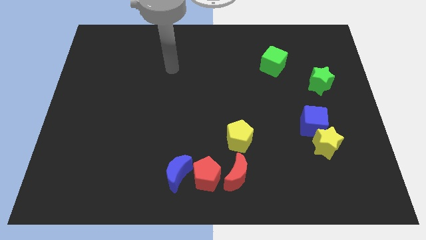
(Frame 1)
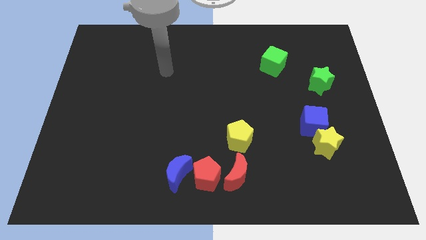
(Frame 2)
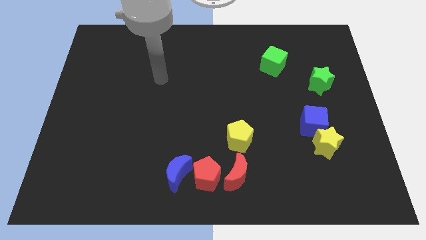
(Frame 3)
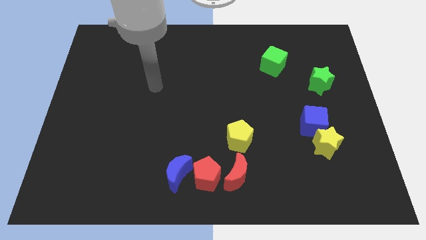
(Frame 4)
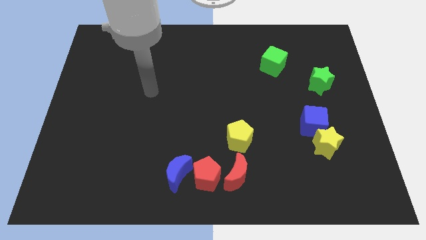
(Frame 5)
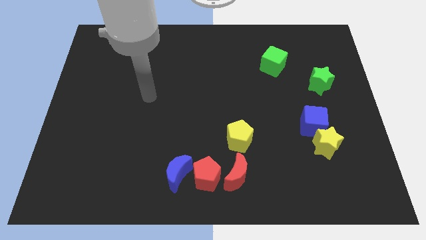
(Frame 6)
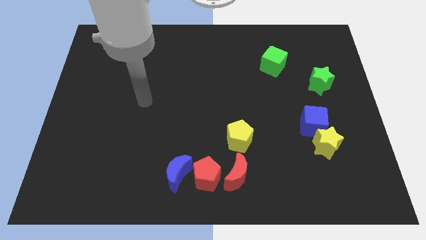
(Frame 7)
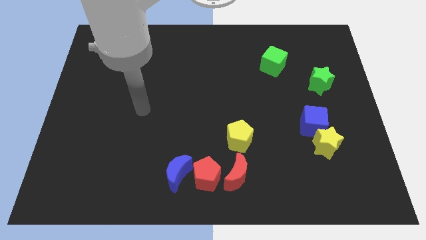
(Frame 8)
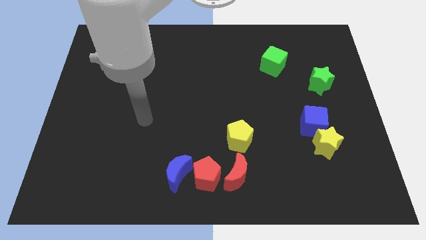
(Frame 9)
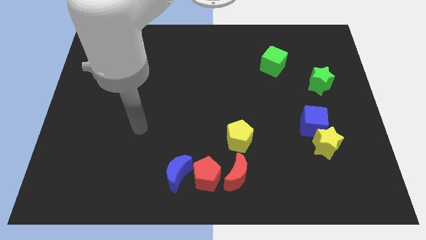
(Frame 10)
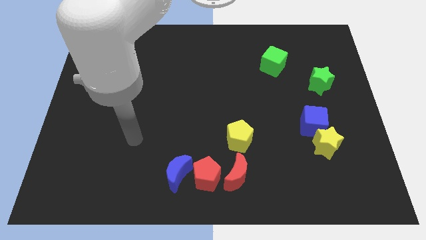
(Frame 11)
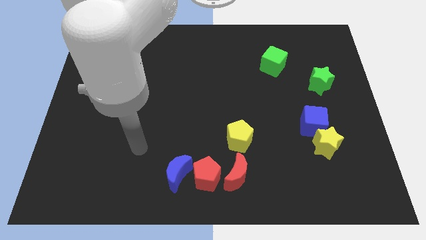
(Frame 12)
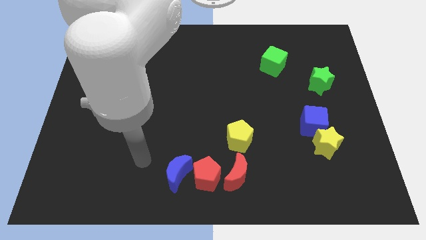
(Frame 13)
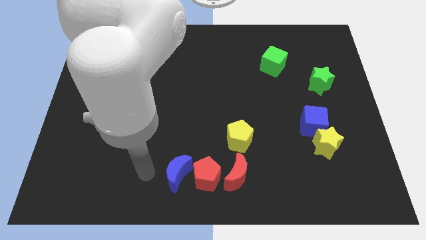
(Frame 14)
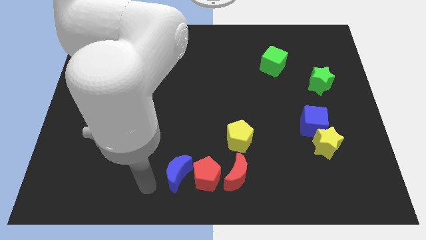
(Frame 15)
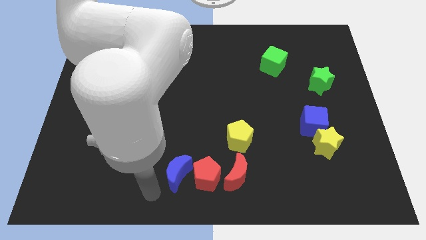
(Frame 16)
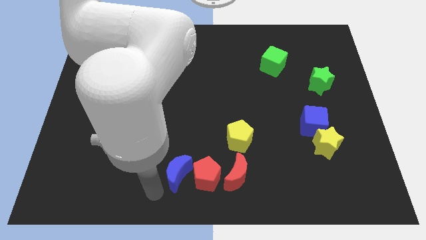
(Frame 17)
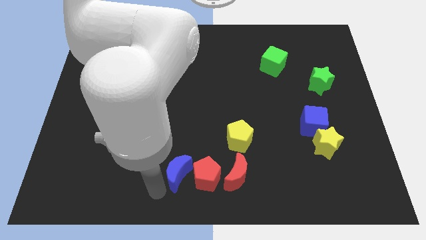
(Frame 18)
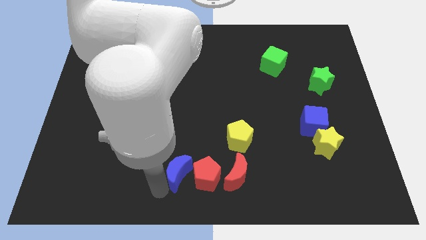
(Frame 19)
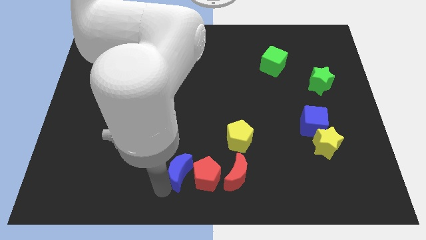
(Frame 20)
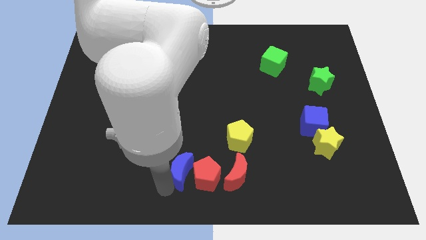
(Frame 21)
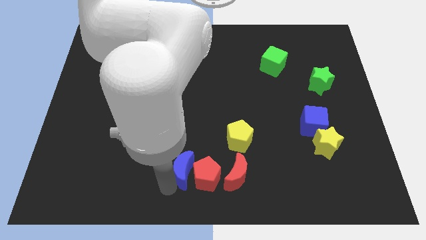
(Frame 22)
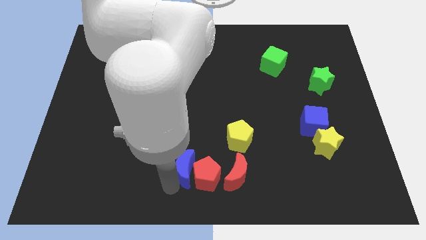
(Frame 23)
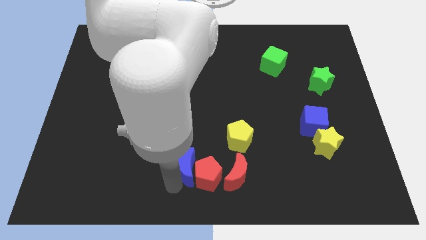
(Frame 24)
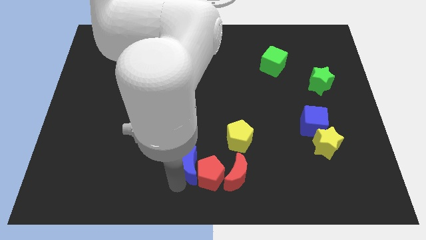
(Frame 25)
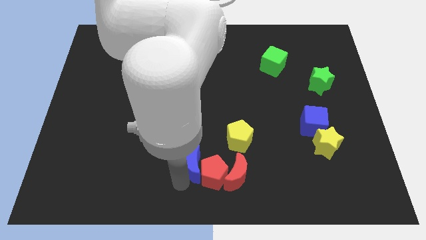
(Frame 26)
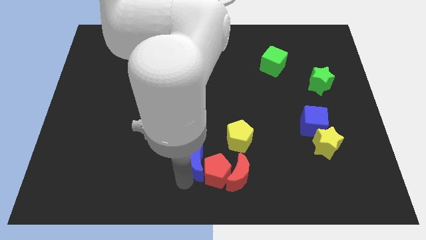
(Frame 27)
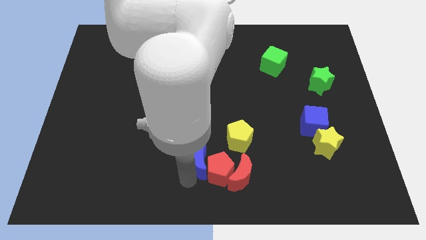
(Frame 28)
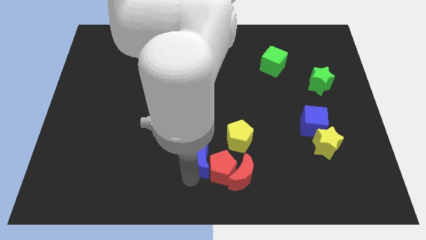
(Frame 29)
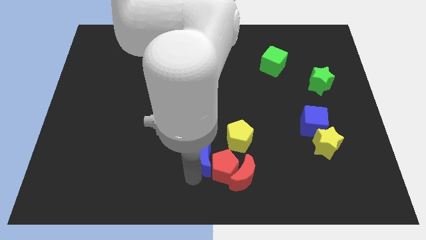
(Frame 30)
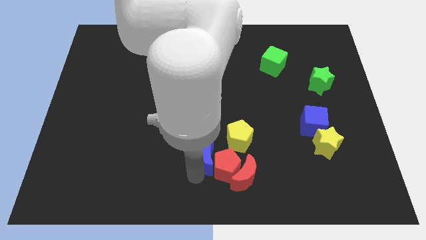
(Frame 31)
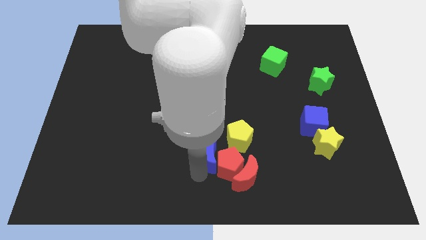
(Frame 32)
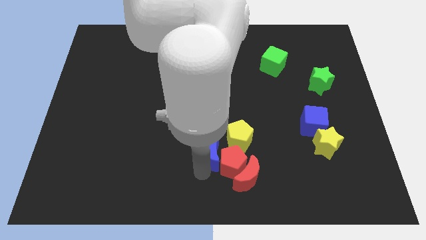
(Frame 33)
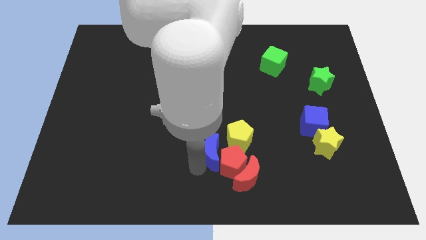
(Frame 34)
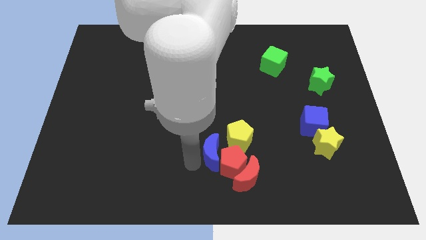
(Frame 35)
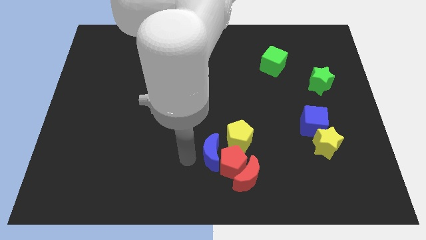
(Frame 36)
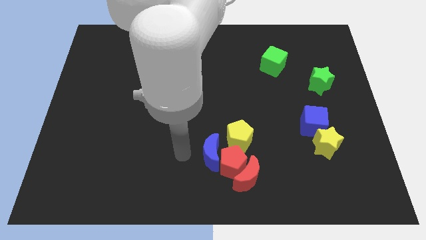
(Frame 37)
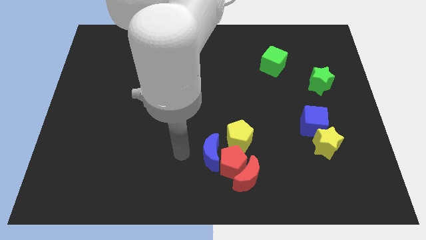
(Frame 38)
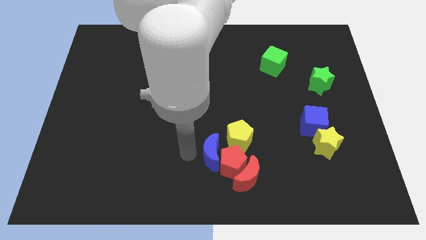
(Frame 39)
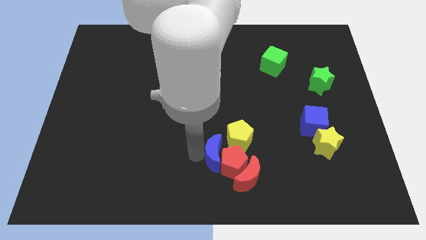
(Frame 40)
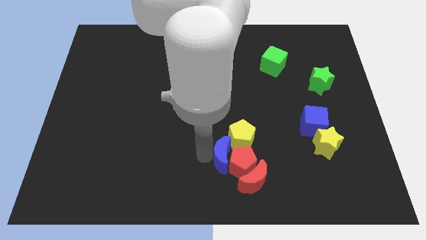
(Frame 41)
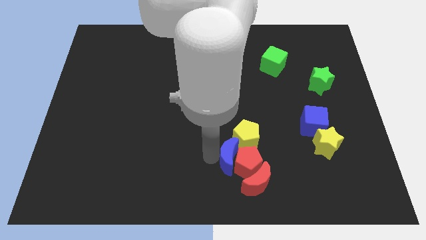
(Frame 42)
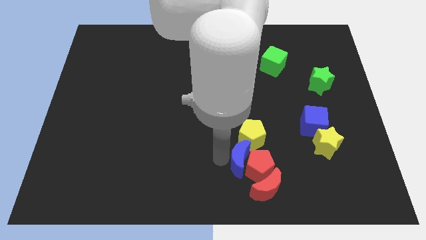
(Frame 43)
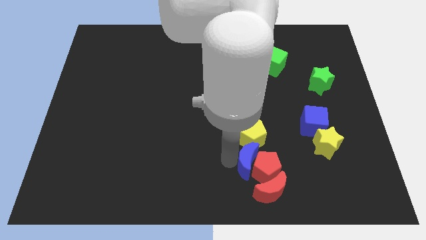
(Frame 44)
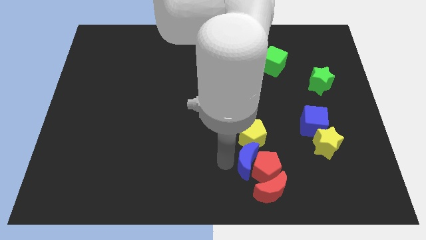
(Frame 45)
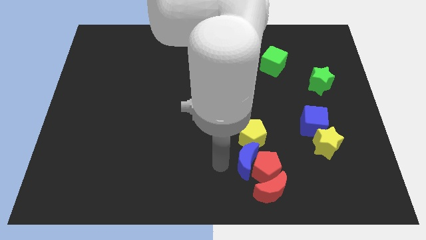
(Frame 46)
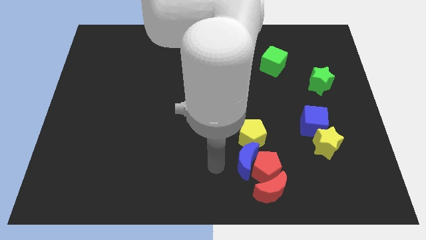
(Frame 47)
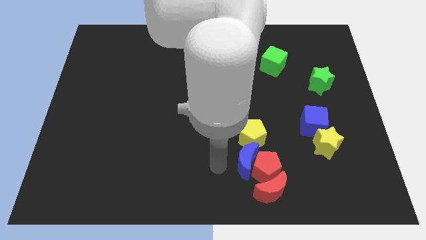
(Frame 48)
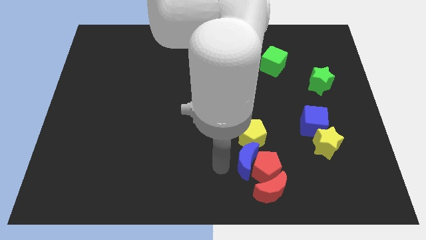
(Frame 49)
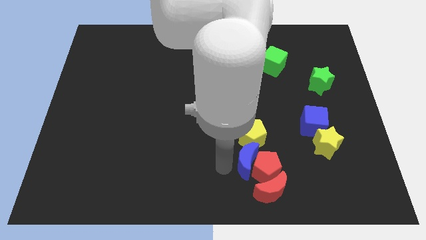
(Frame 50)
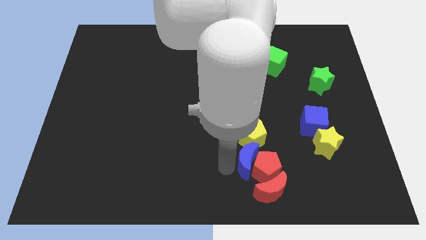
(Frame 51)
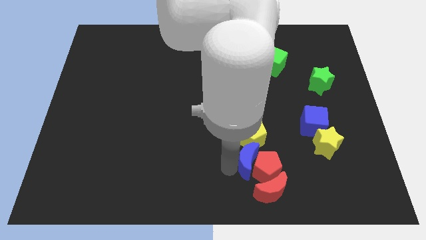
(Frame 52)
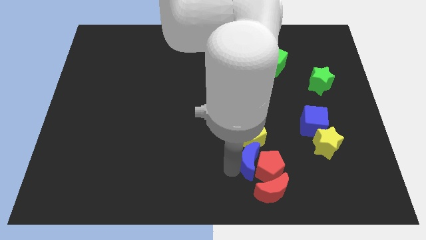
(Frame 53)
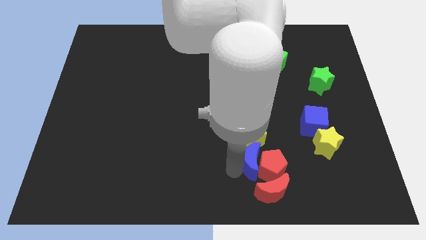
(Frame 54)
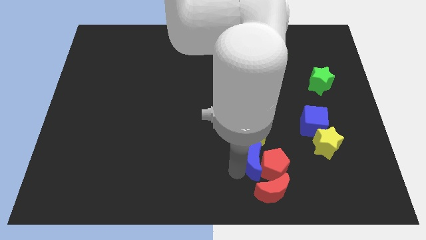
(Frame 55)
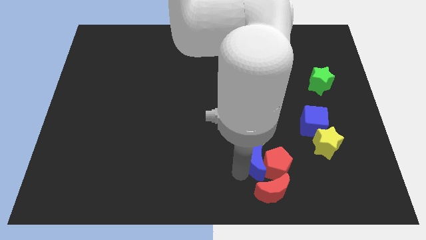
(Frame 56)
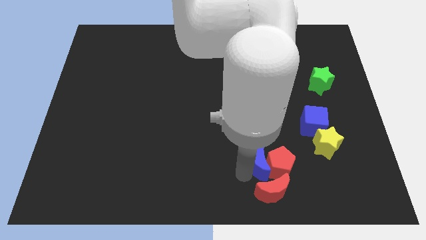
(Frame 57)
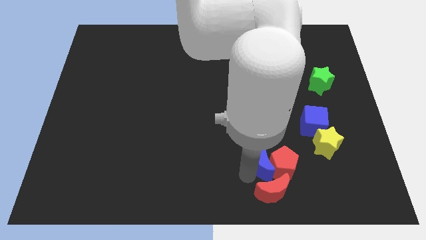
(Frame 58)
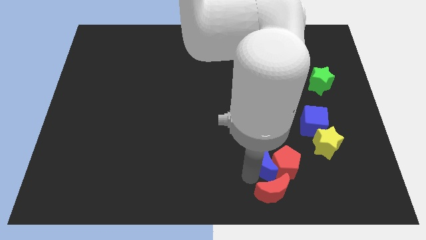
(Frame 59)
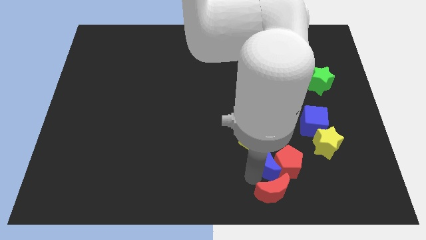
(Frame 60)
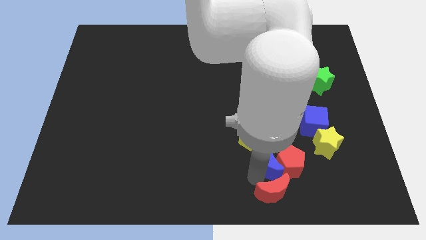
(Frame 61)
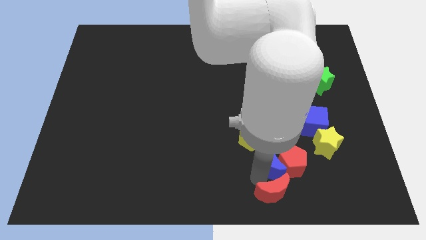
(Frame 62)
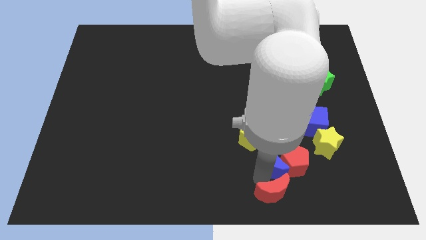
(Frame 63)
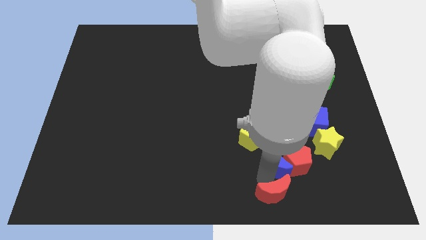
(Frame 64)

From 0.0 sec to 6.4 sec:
move the blue moon to the right

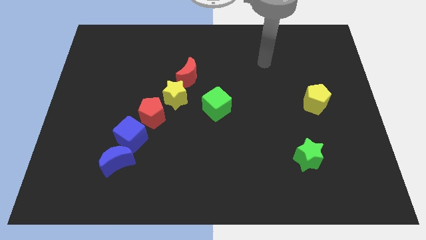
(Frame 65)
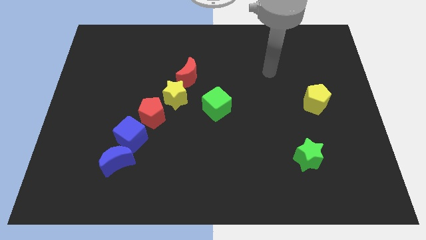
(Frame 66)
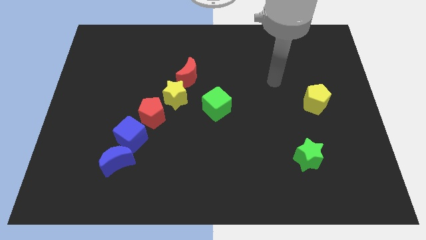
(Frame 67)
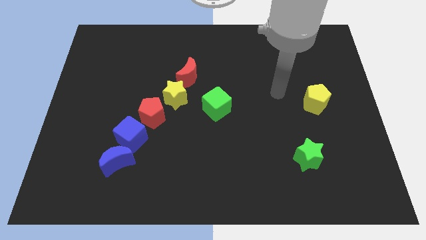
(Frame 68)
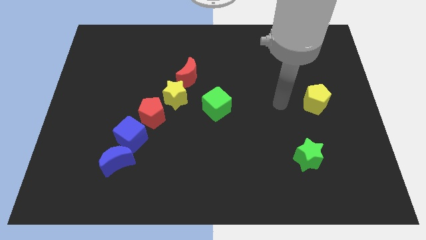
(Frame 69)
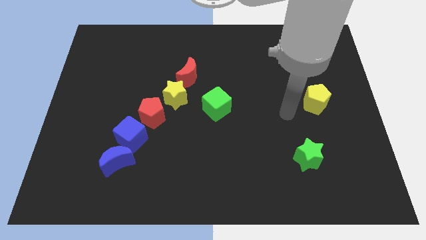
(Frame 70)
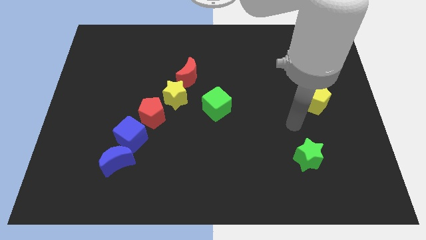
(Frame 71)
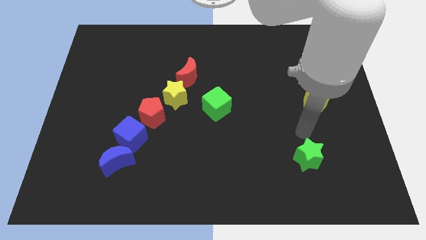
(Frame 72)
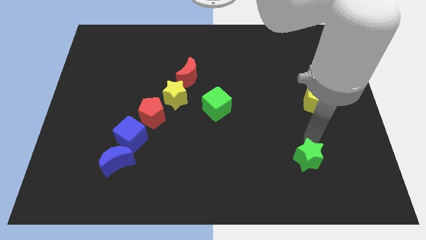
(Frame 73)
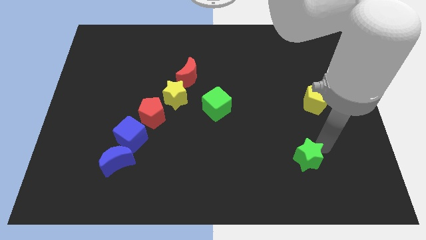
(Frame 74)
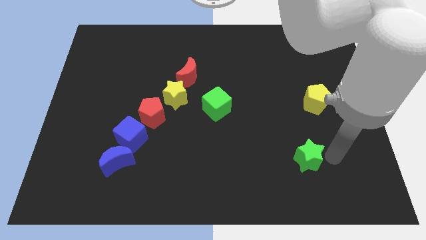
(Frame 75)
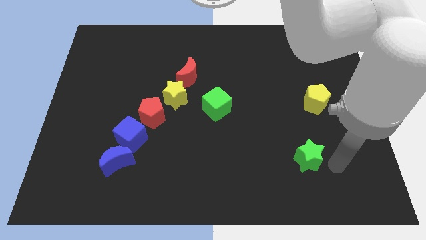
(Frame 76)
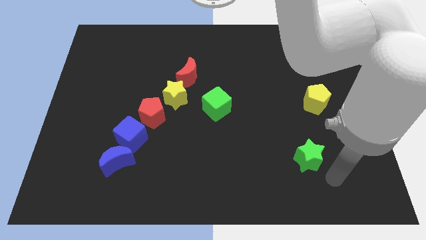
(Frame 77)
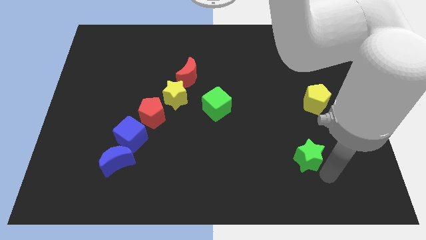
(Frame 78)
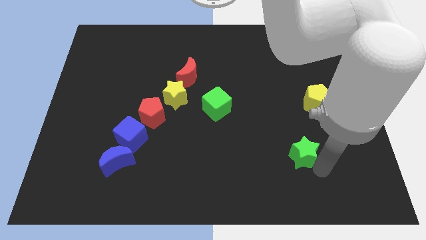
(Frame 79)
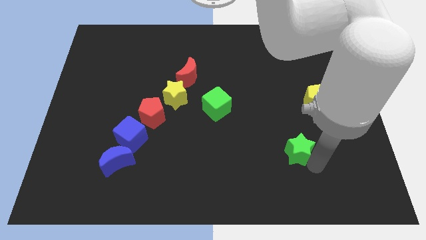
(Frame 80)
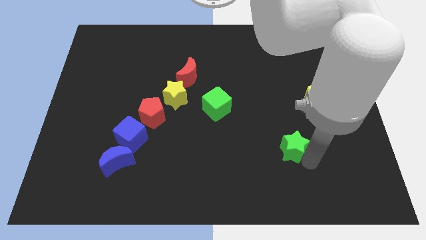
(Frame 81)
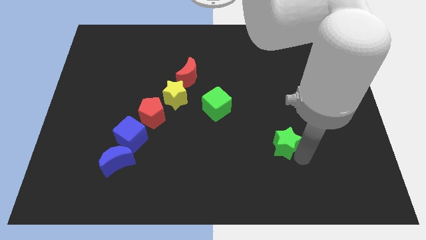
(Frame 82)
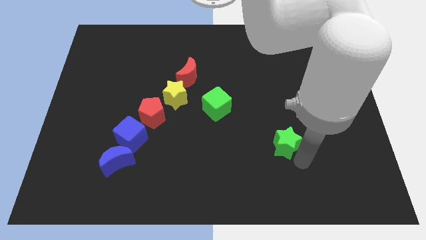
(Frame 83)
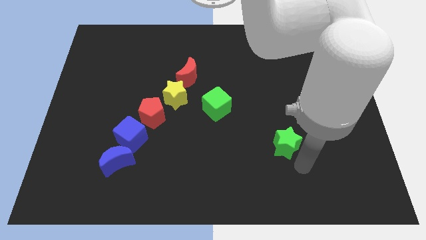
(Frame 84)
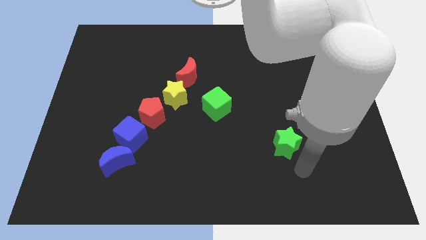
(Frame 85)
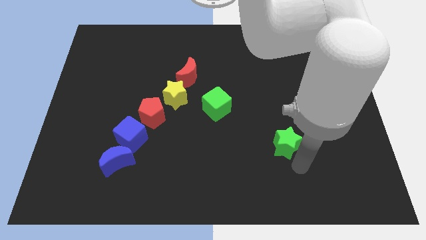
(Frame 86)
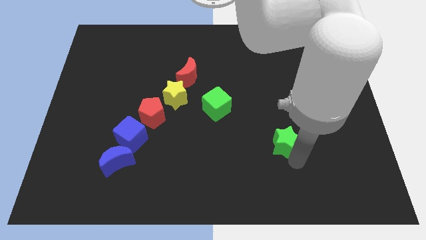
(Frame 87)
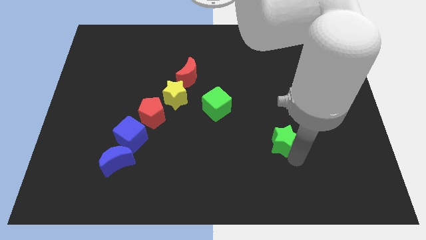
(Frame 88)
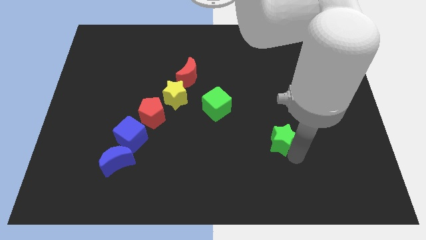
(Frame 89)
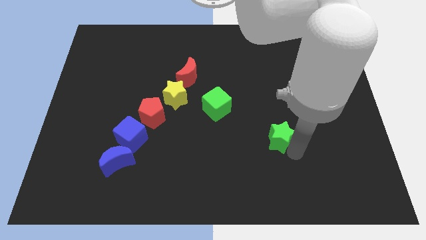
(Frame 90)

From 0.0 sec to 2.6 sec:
slide the green star diagonally up and left a little bit
